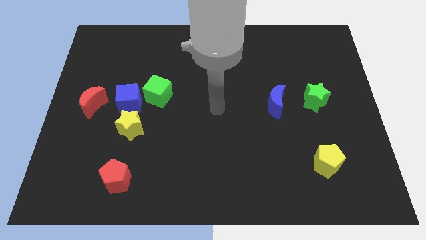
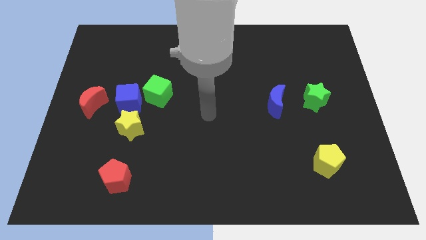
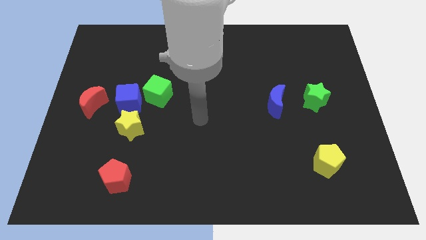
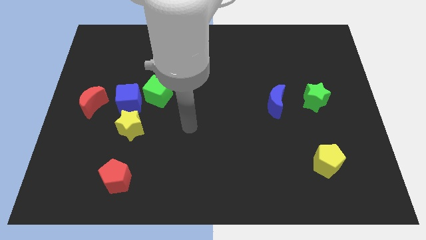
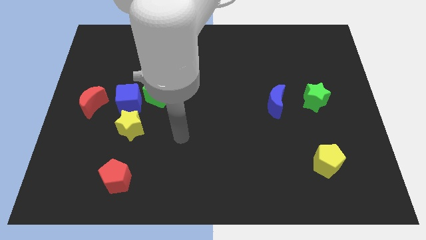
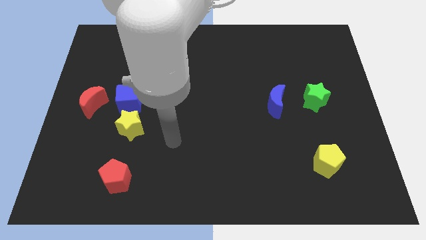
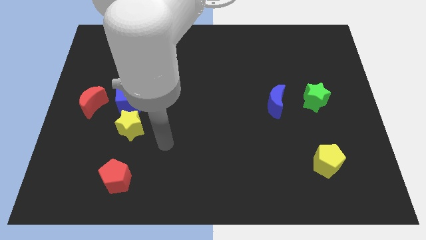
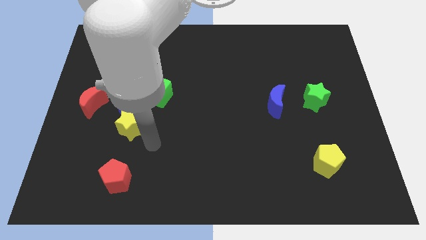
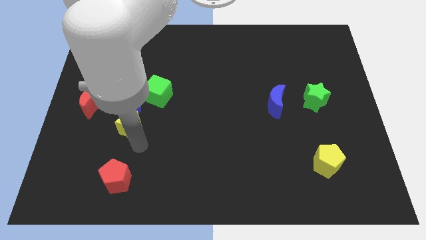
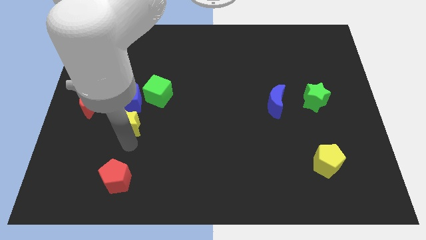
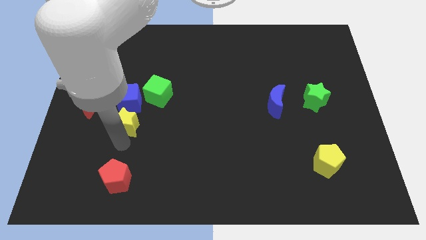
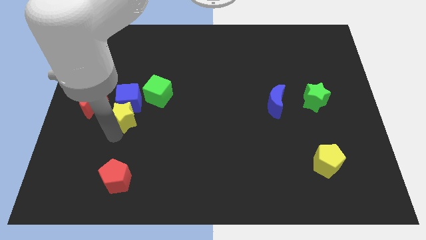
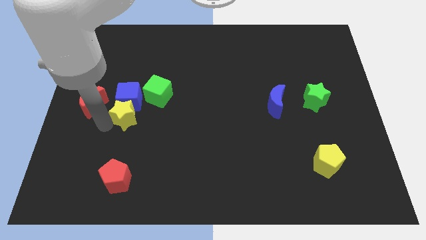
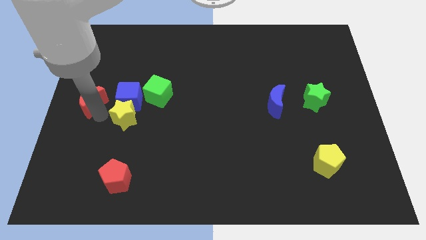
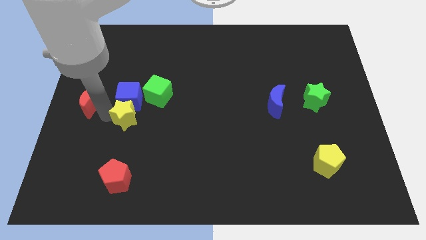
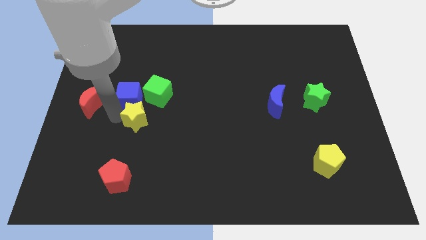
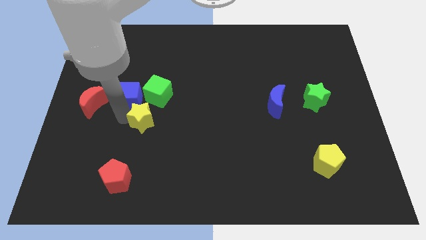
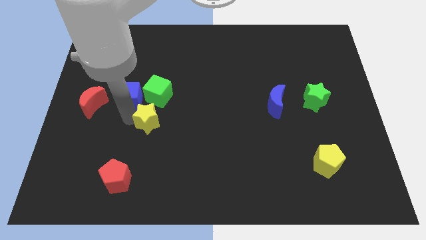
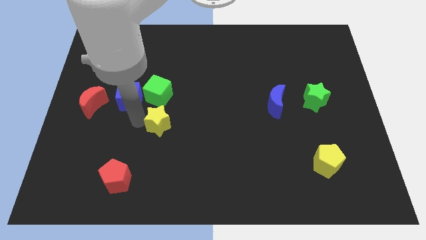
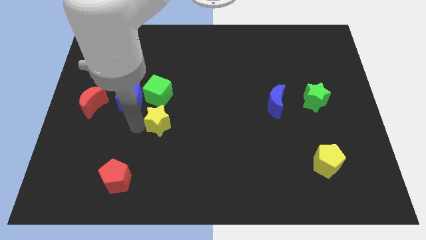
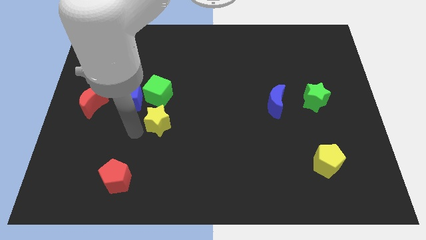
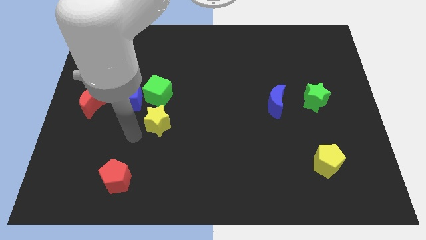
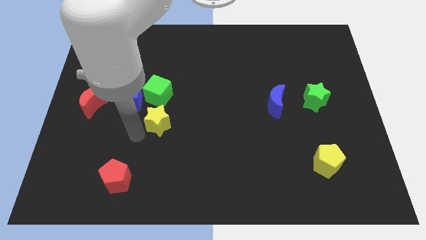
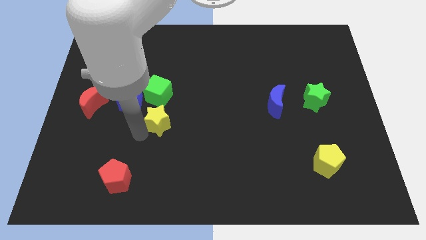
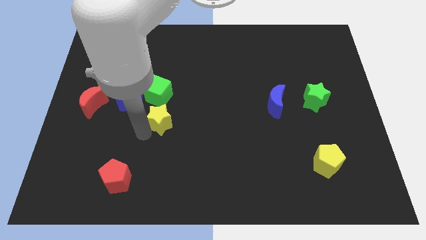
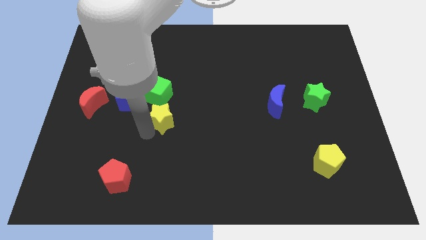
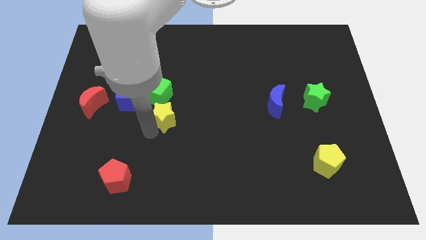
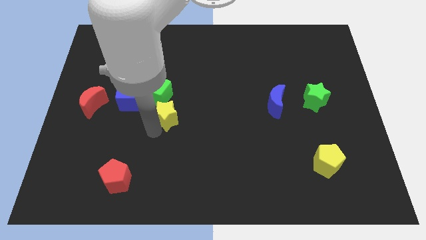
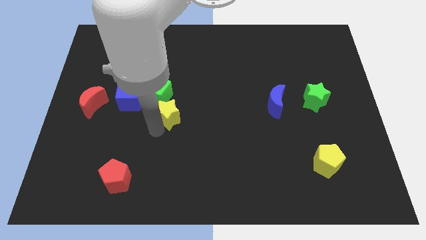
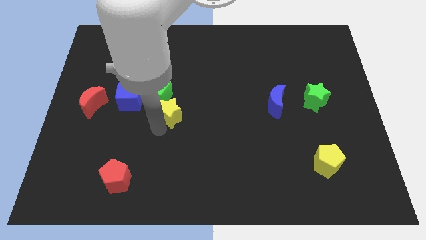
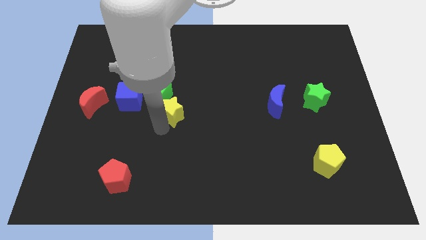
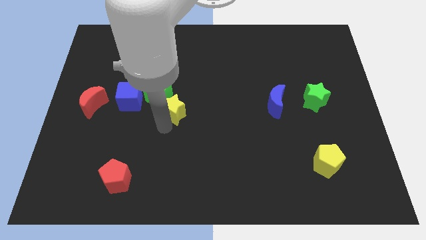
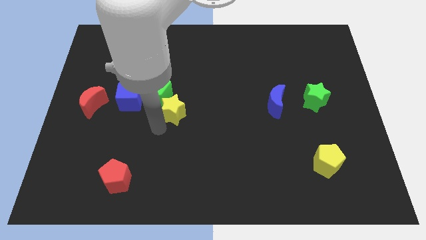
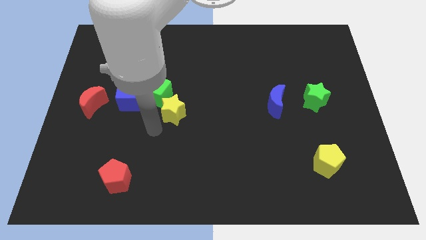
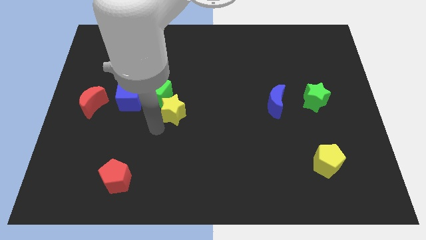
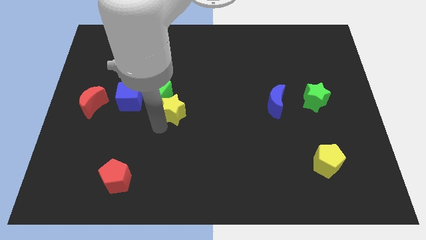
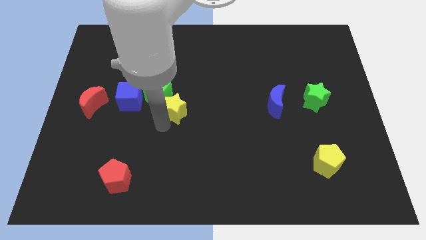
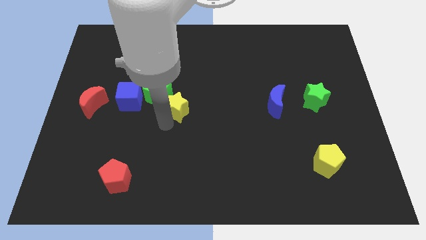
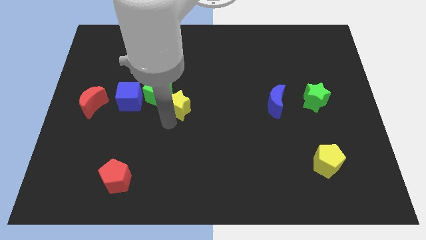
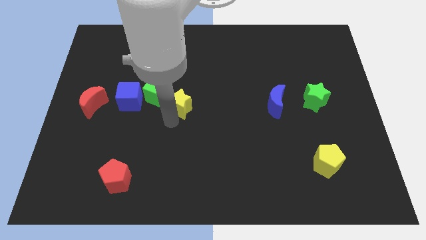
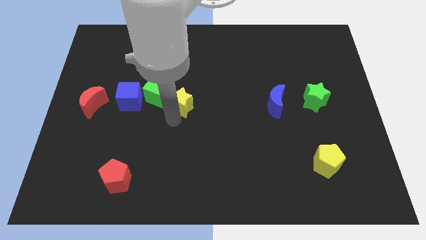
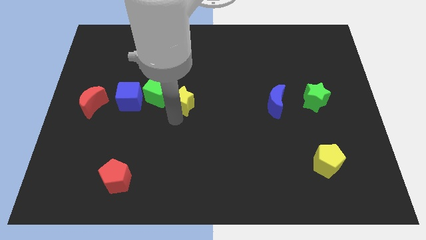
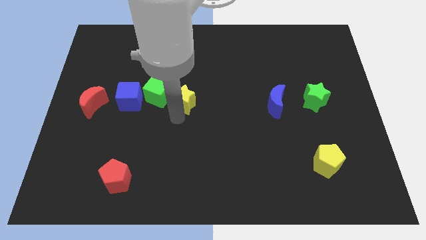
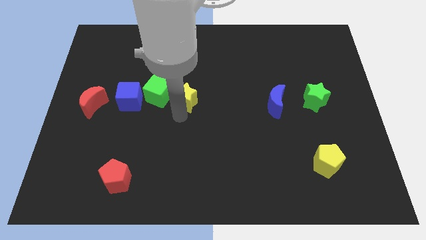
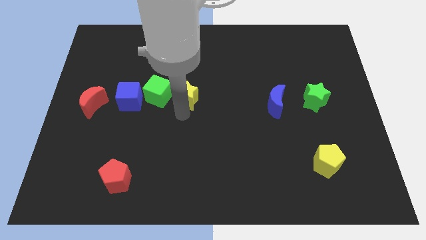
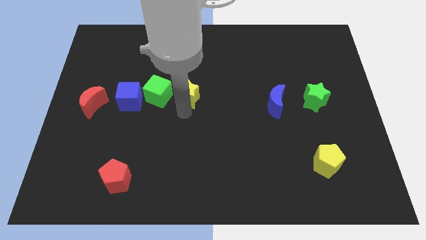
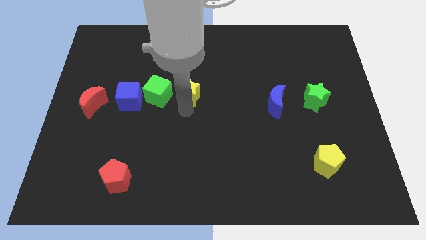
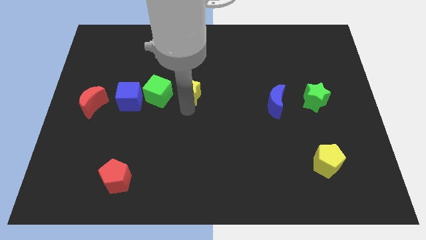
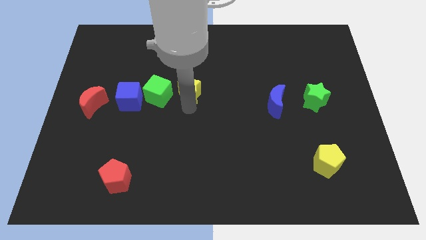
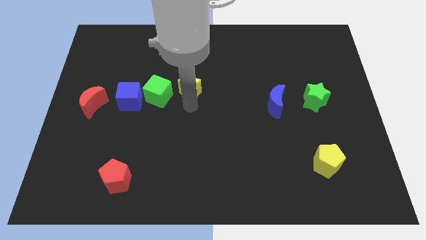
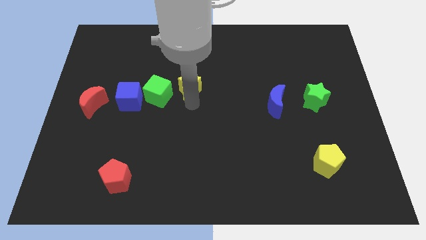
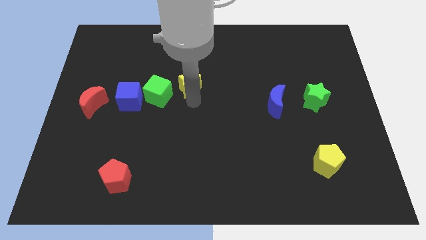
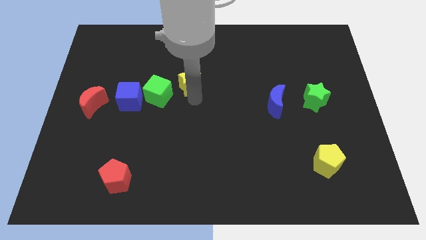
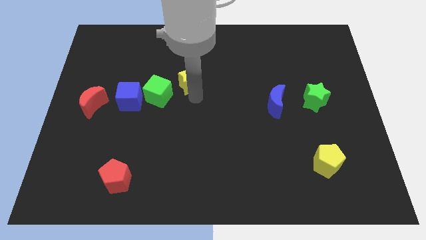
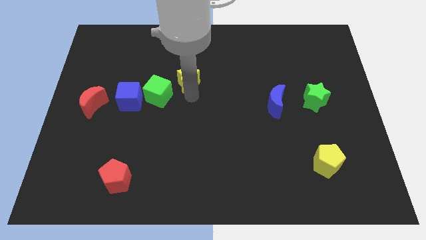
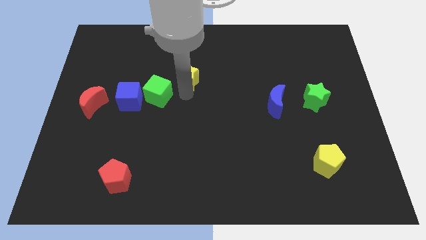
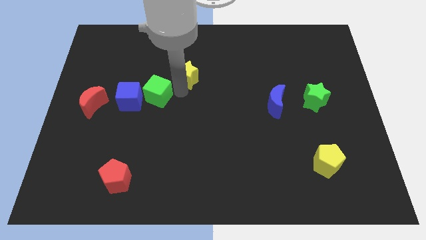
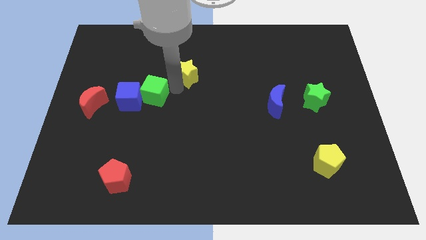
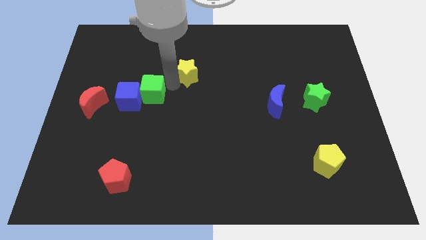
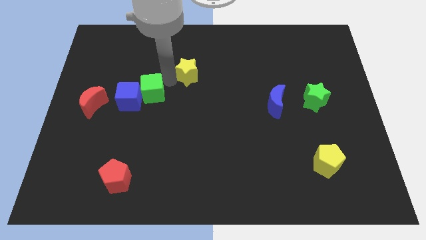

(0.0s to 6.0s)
push the yellow star diagonally upwards and to the right

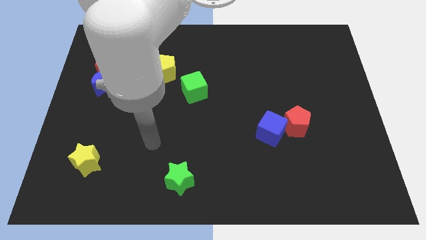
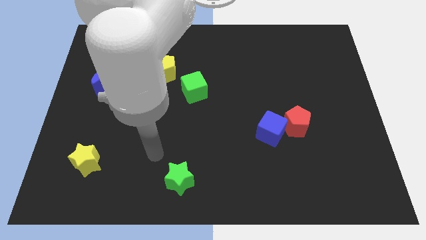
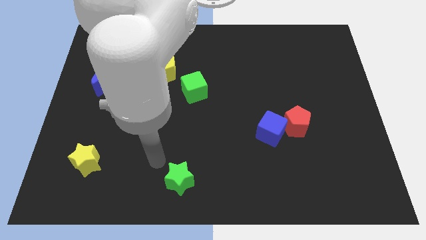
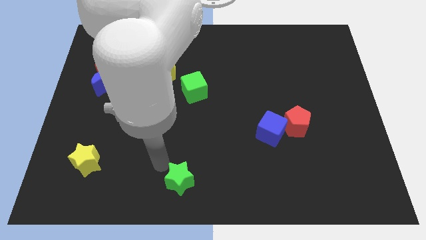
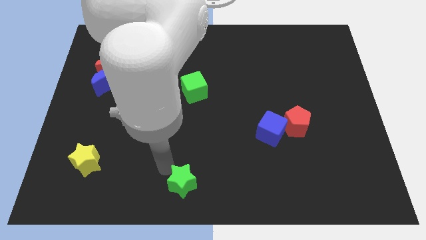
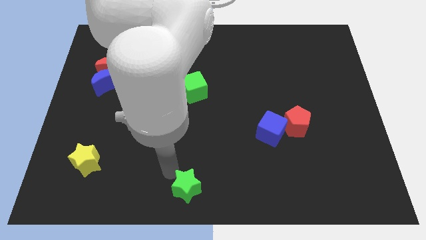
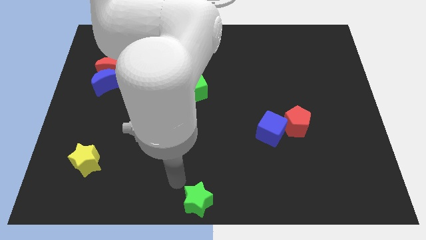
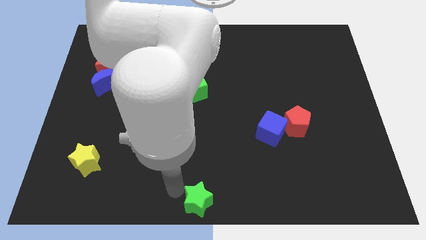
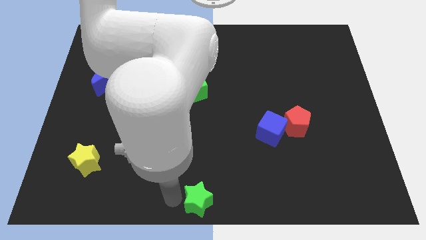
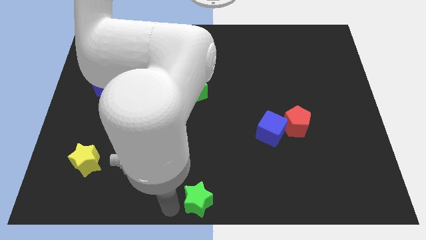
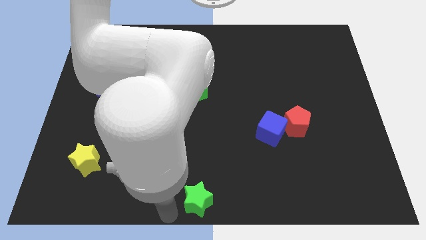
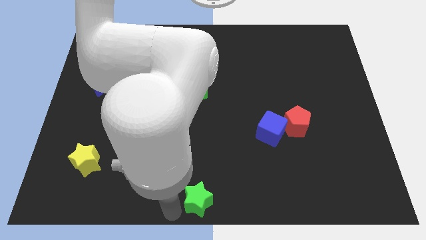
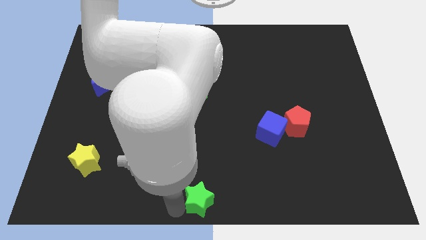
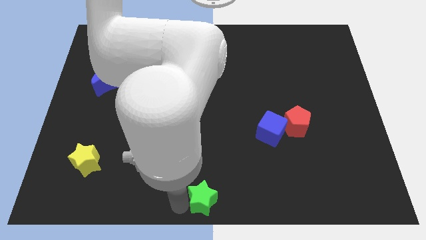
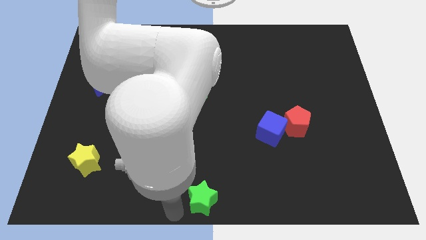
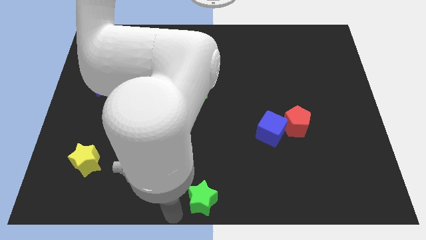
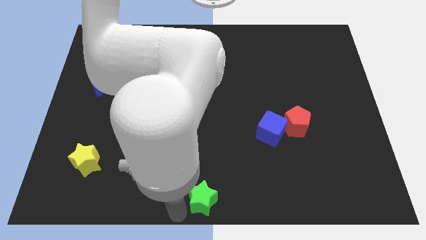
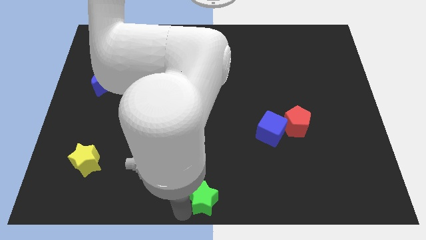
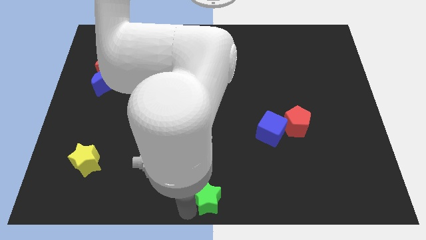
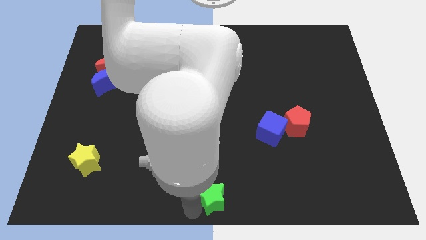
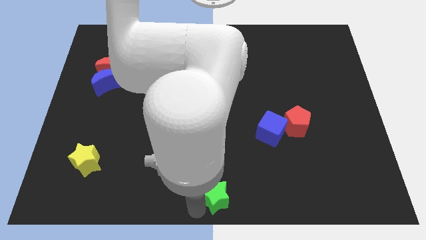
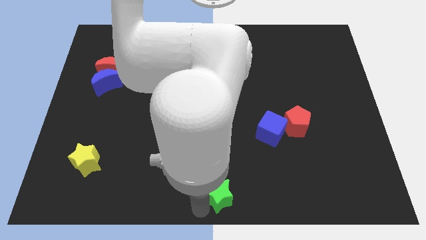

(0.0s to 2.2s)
slide the green star right somewhat
